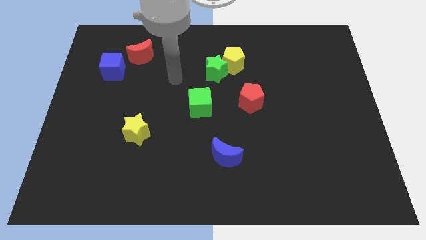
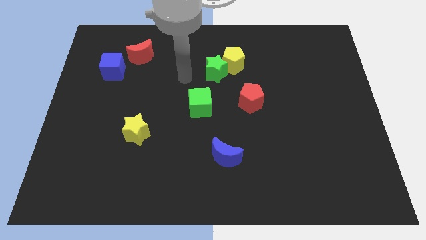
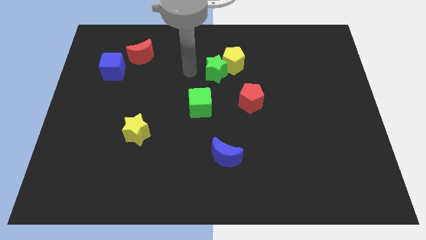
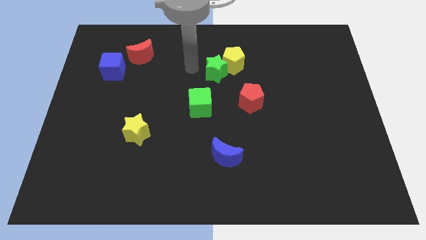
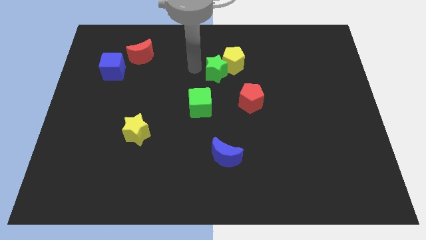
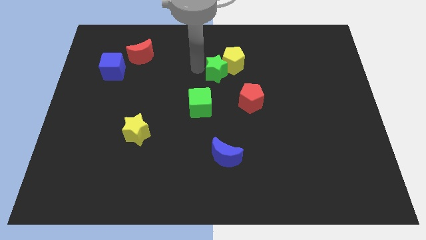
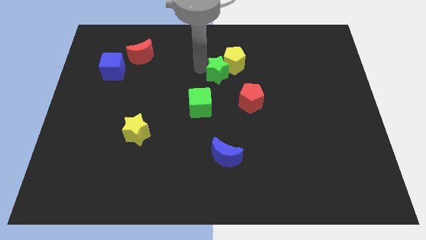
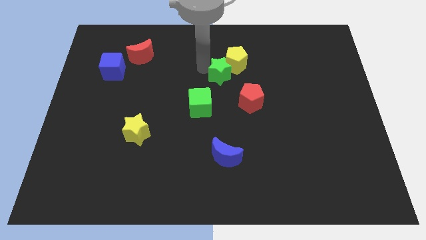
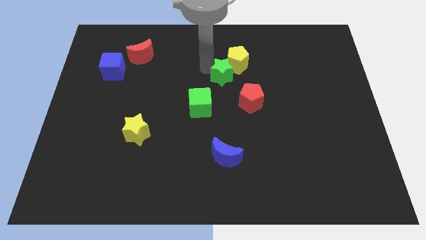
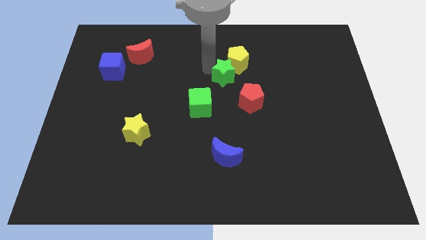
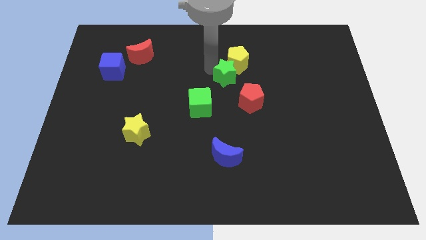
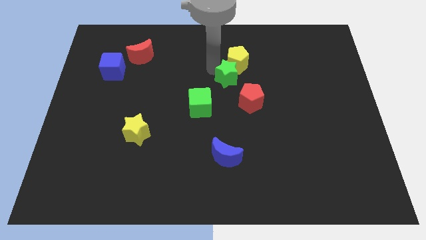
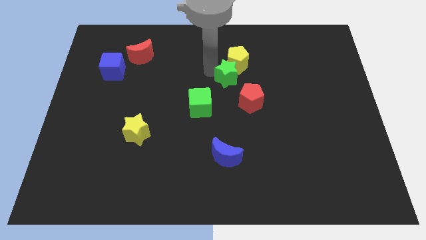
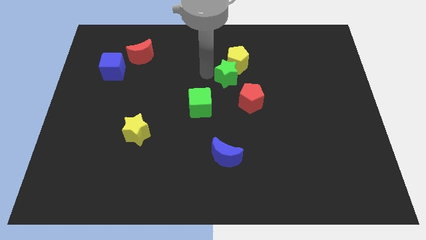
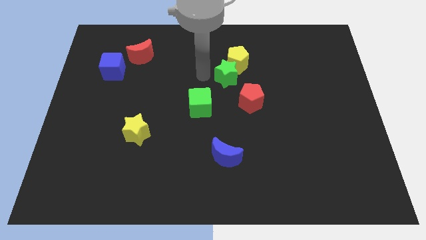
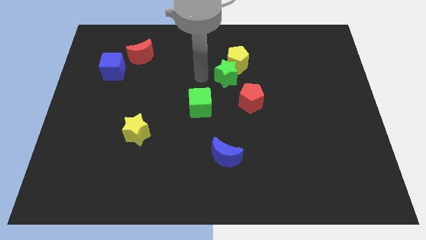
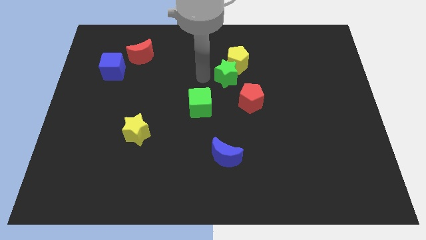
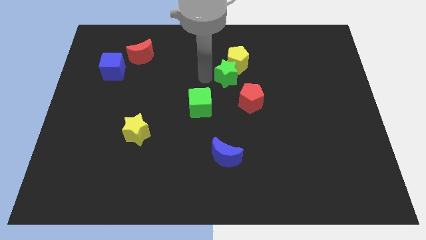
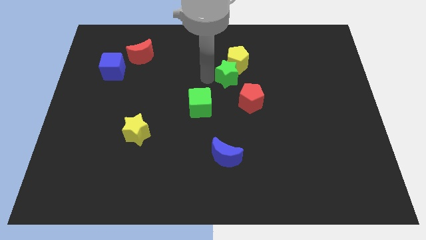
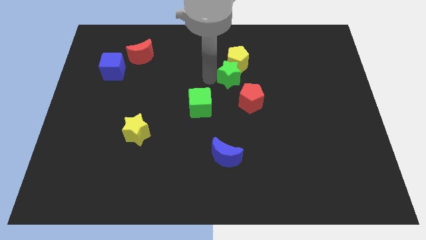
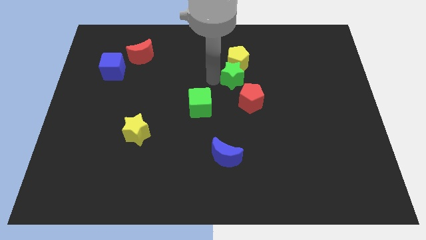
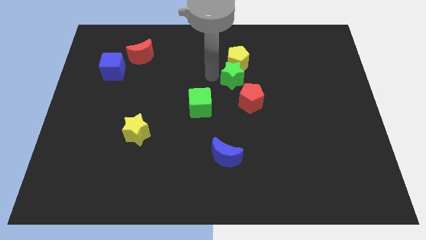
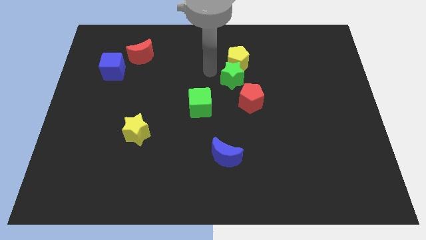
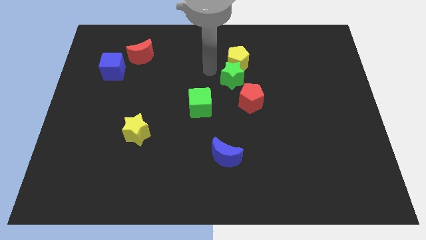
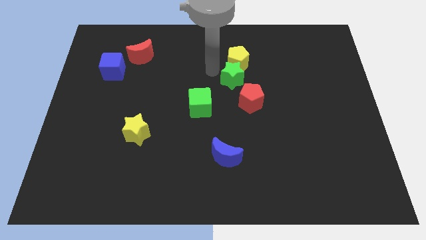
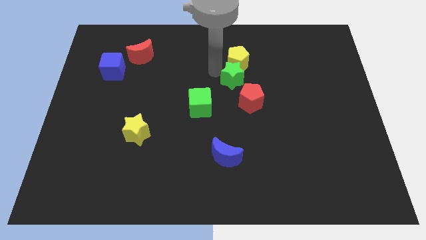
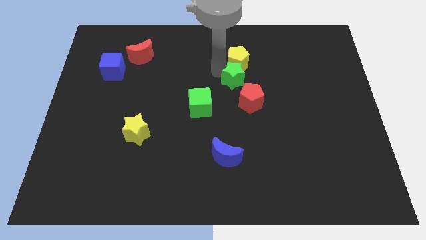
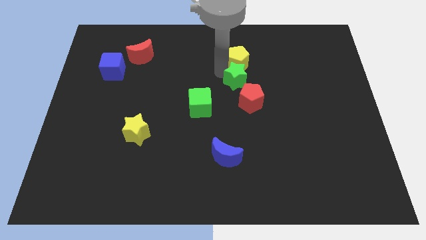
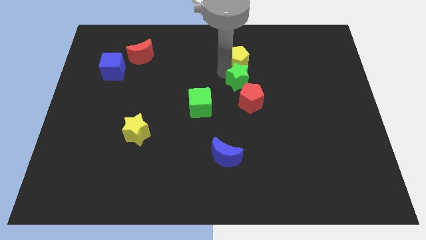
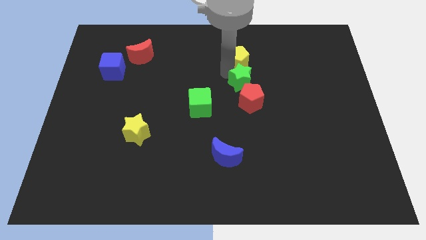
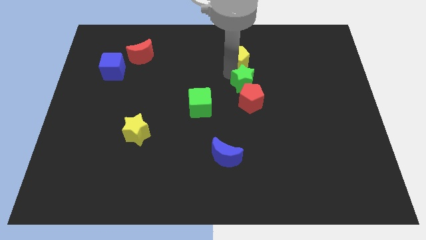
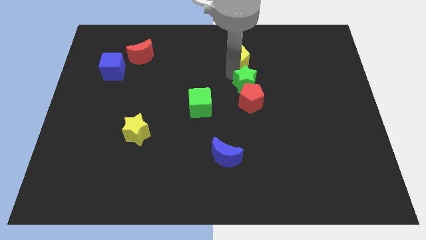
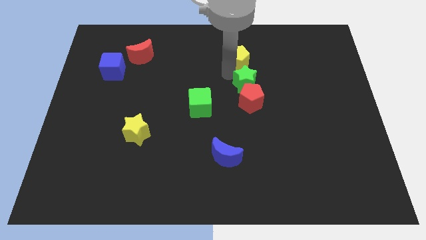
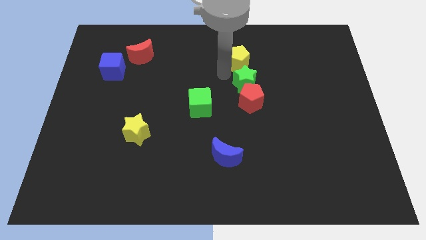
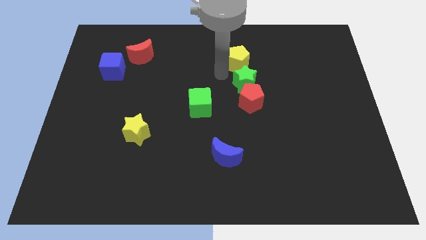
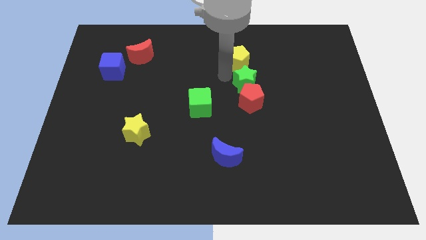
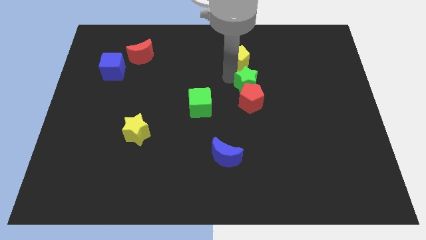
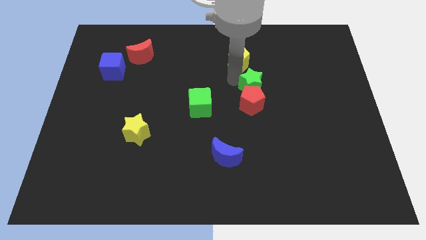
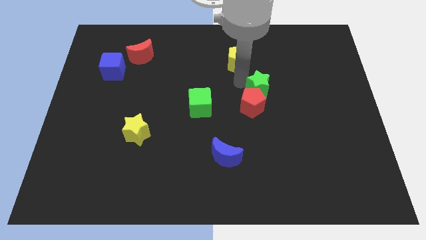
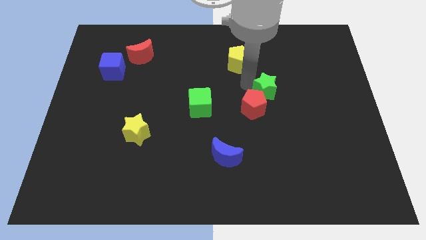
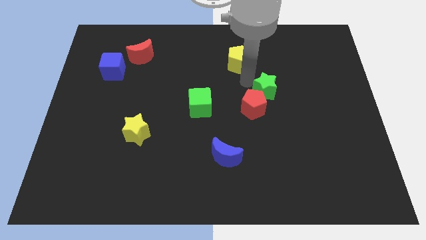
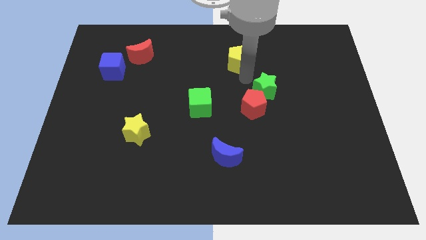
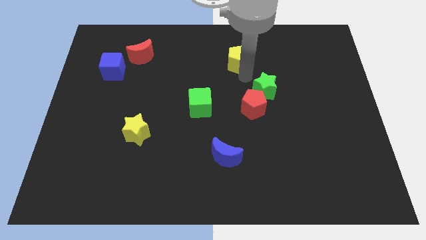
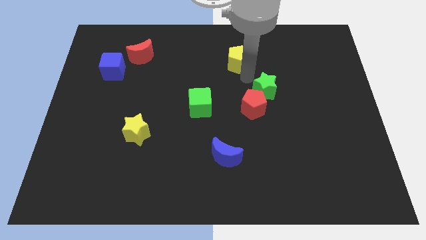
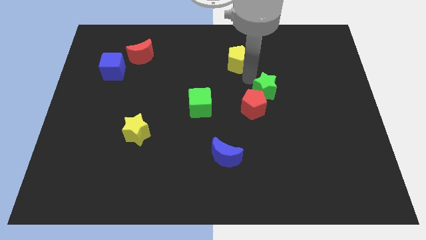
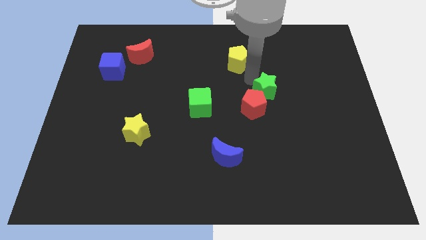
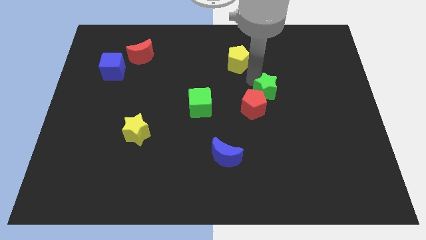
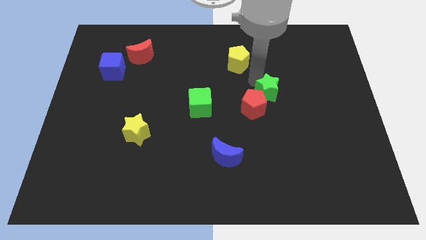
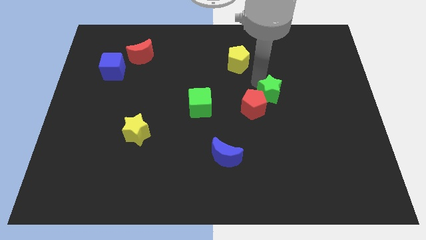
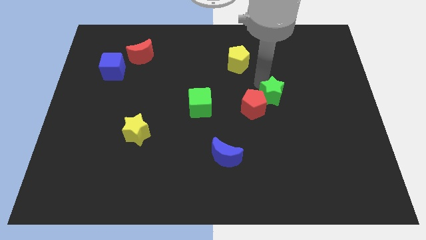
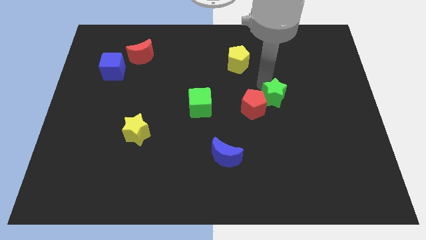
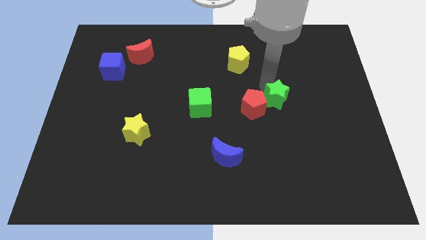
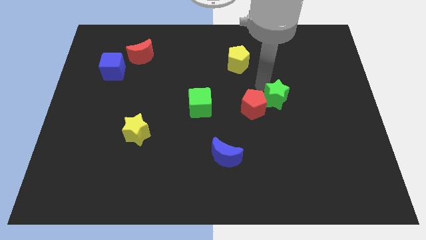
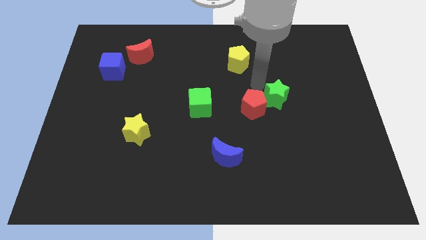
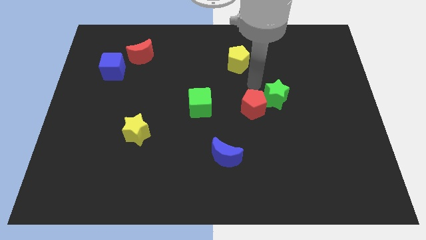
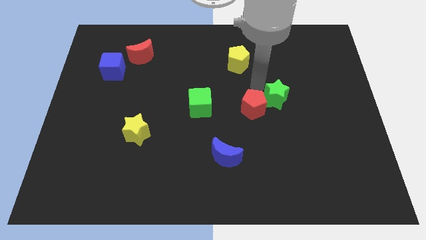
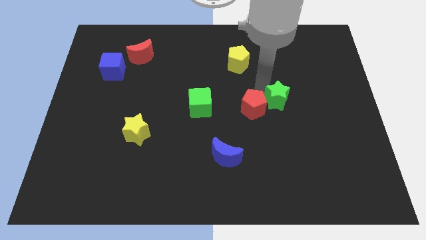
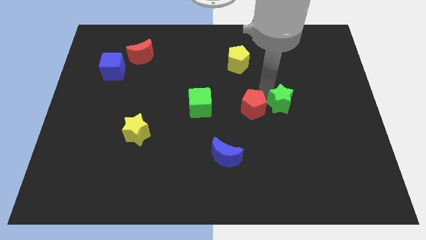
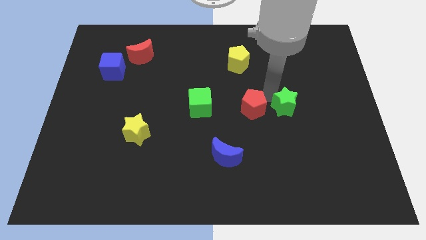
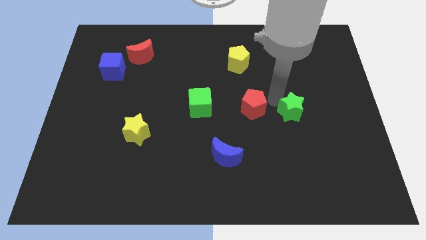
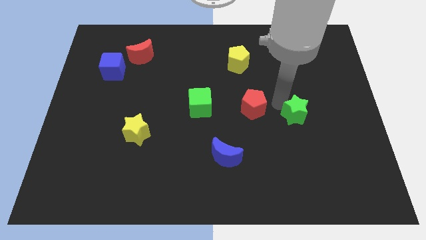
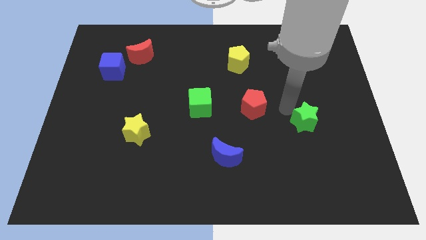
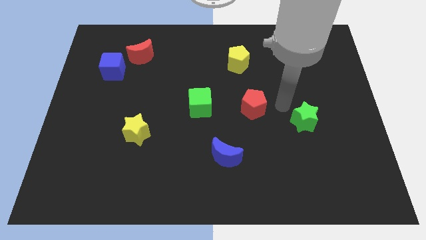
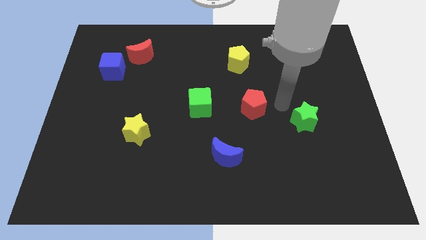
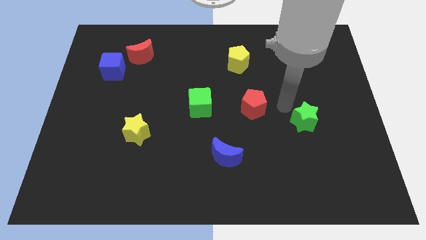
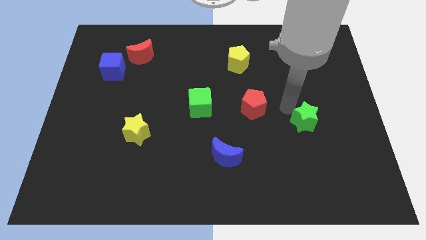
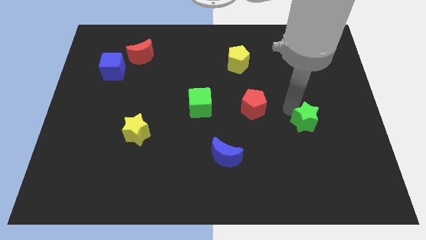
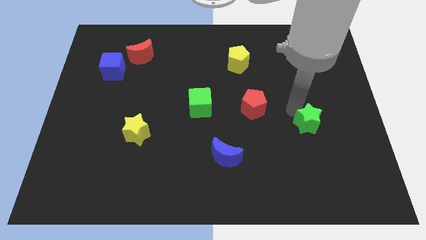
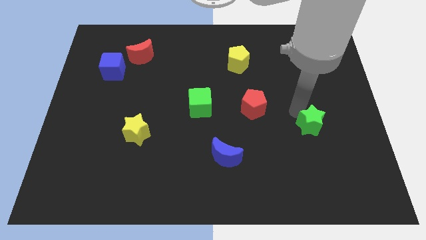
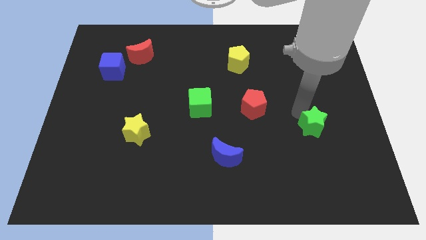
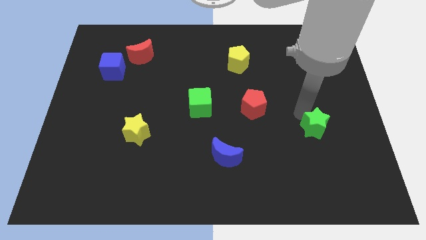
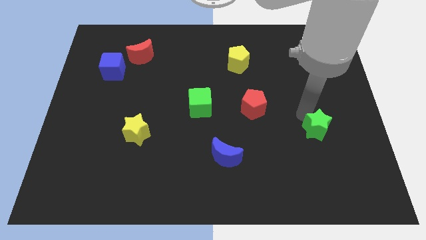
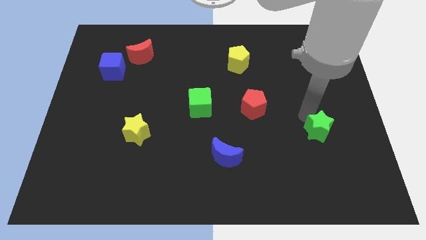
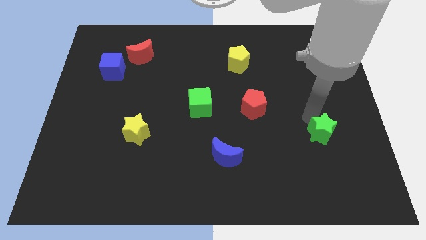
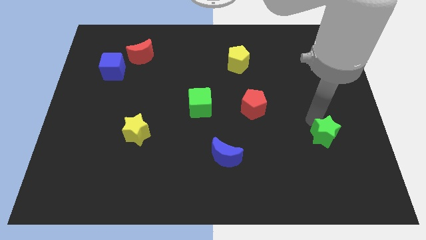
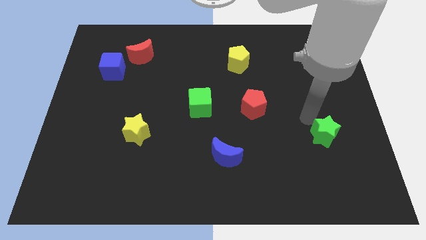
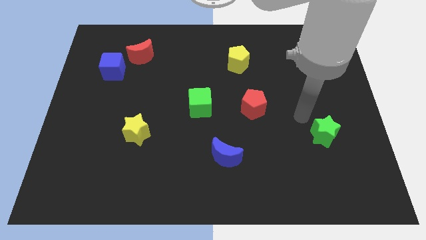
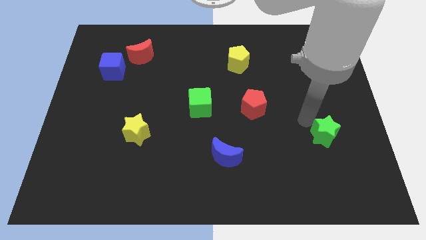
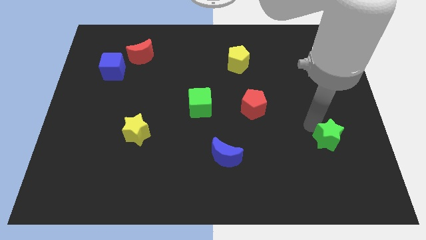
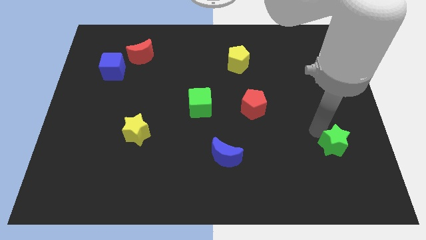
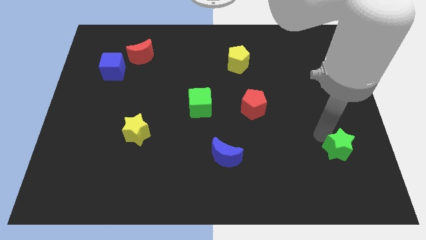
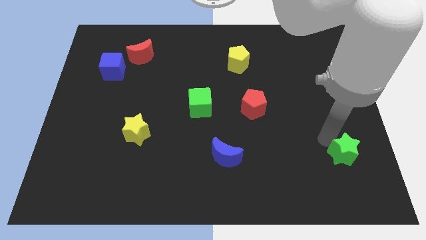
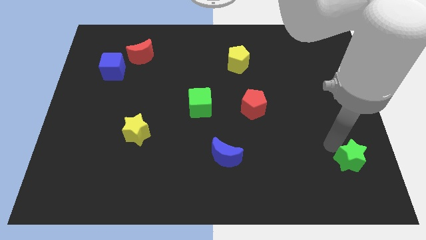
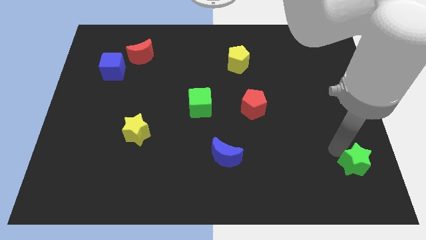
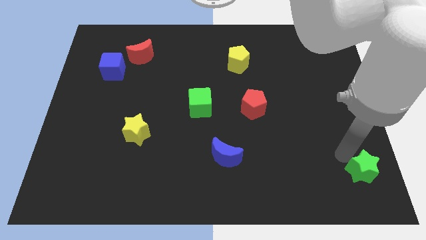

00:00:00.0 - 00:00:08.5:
push the green star to the bottom right
